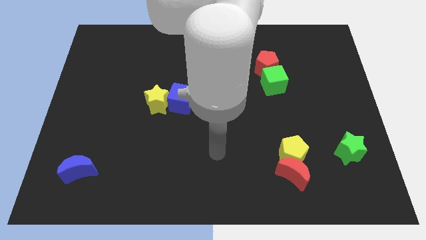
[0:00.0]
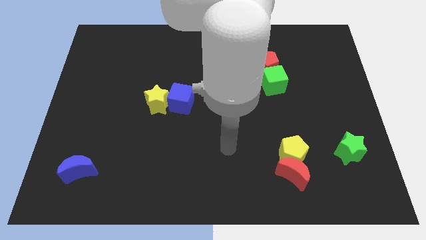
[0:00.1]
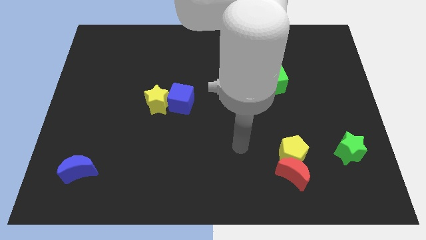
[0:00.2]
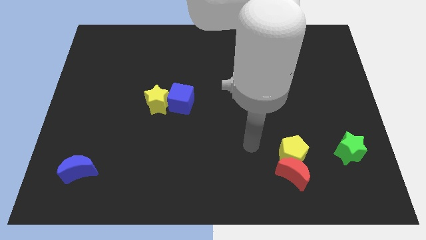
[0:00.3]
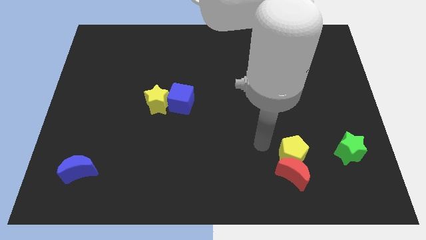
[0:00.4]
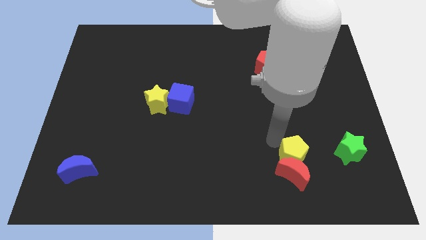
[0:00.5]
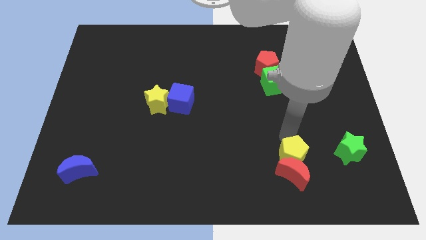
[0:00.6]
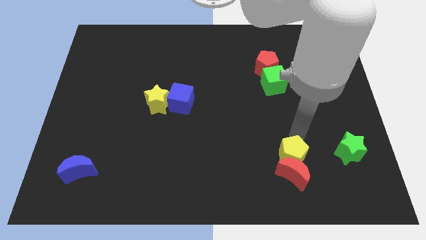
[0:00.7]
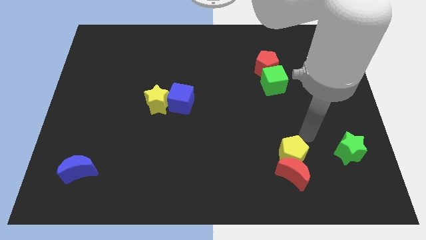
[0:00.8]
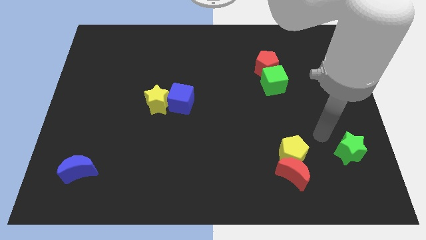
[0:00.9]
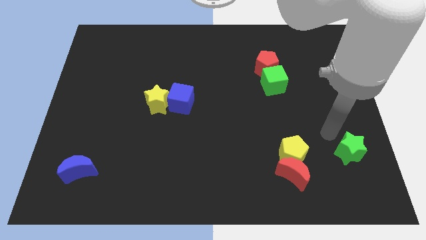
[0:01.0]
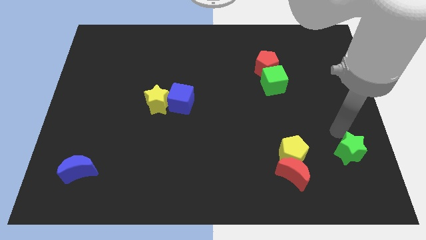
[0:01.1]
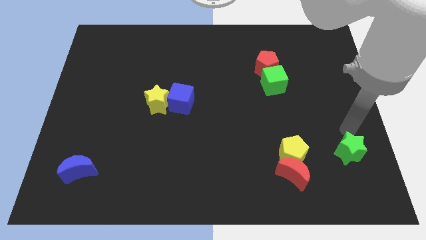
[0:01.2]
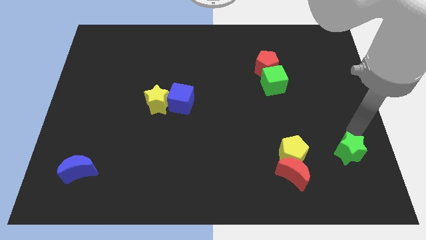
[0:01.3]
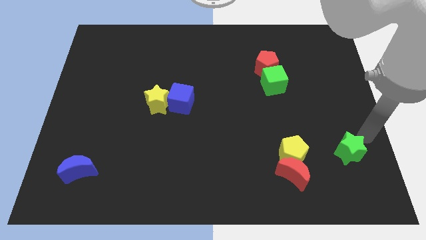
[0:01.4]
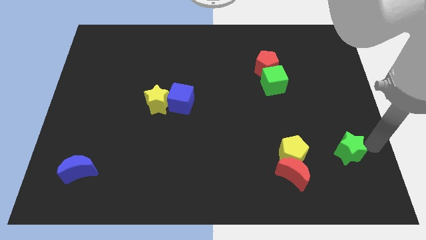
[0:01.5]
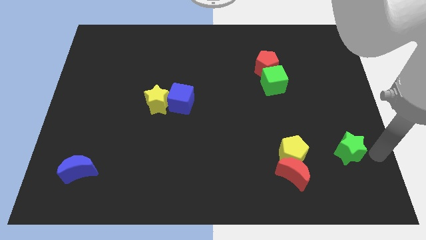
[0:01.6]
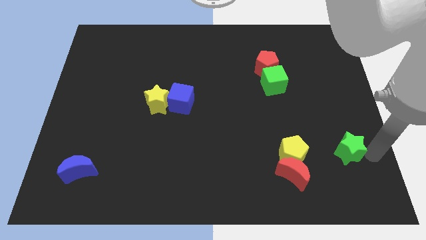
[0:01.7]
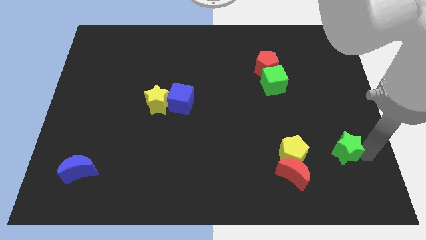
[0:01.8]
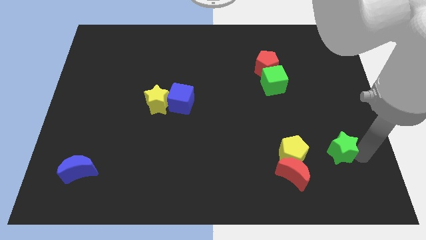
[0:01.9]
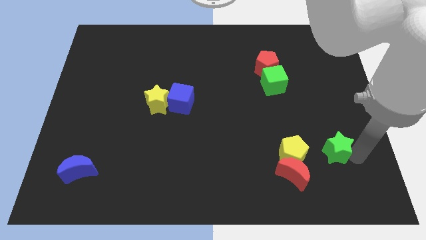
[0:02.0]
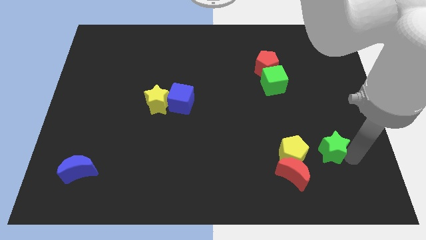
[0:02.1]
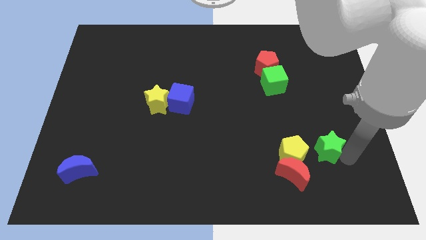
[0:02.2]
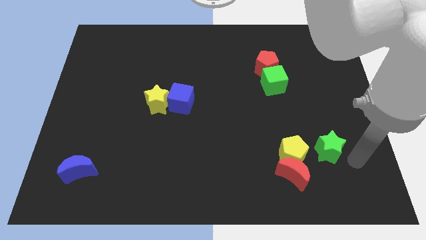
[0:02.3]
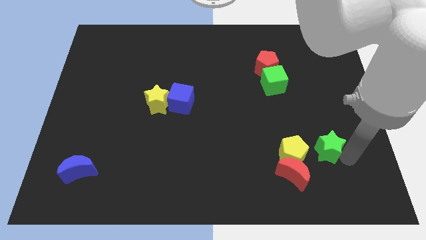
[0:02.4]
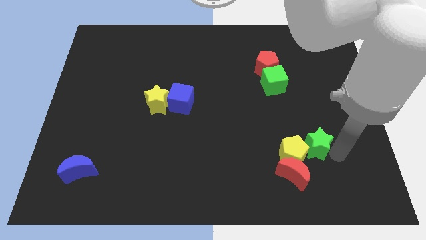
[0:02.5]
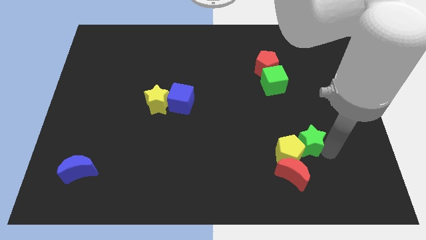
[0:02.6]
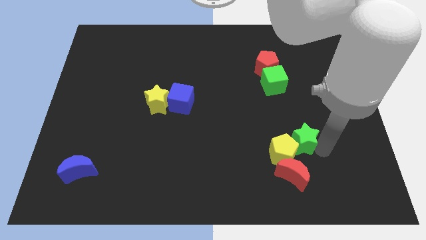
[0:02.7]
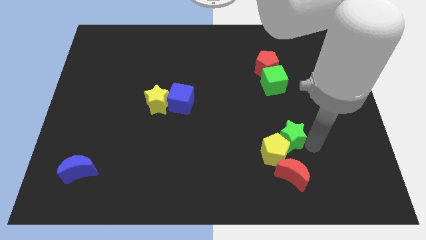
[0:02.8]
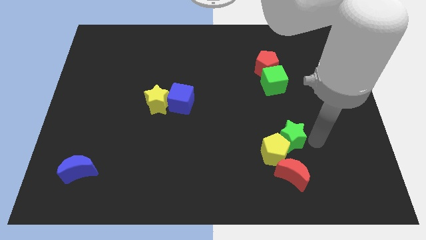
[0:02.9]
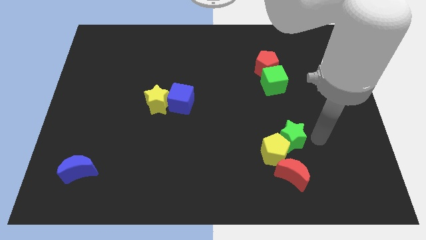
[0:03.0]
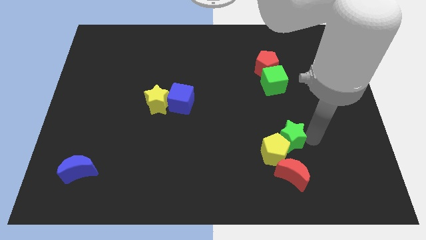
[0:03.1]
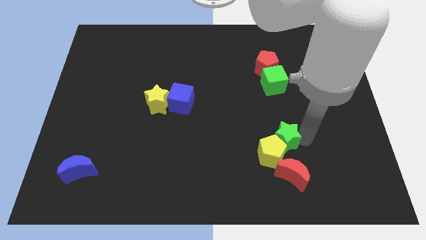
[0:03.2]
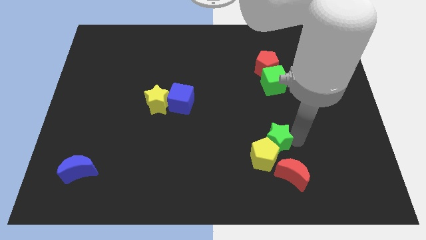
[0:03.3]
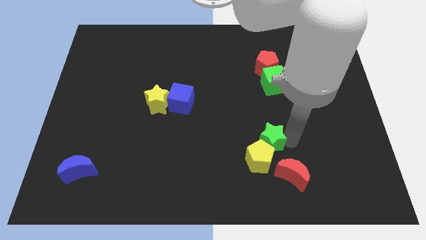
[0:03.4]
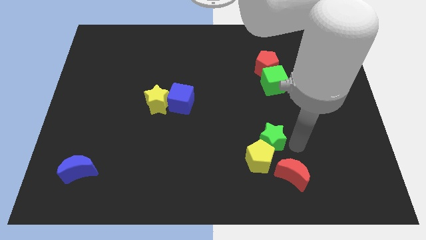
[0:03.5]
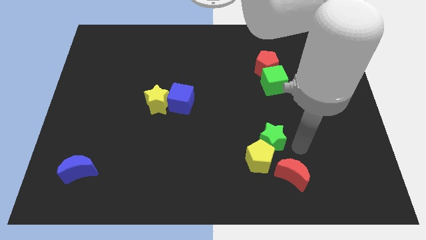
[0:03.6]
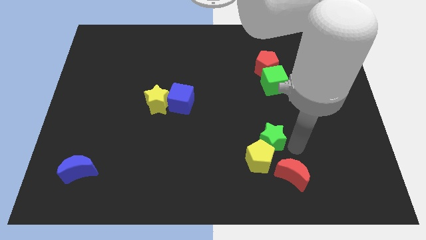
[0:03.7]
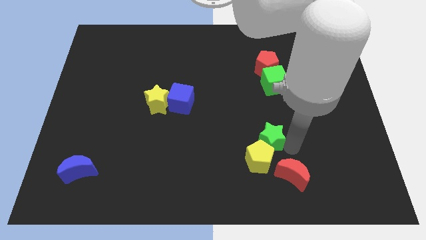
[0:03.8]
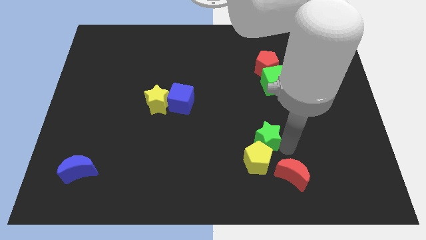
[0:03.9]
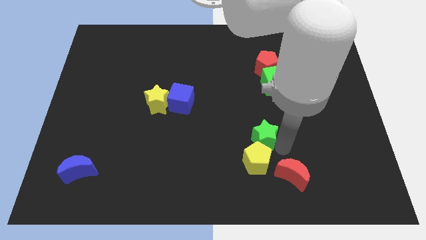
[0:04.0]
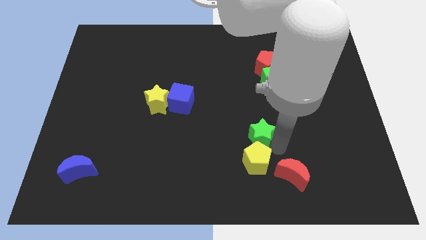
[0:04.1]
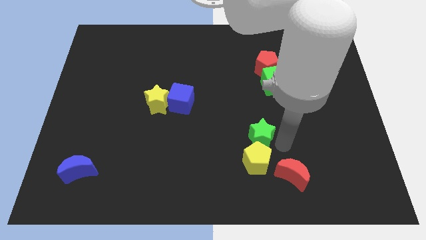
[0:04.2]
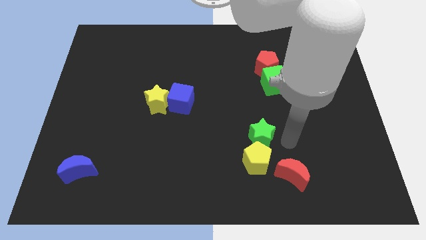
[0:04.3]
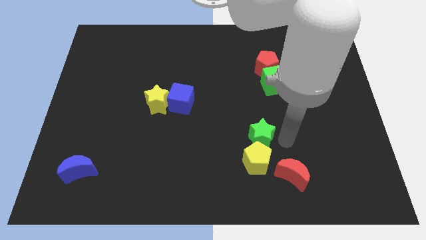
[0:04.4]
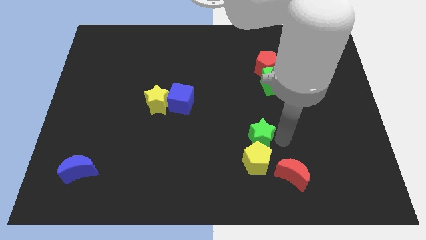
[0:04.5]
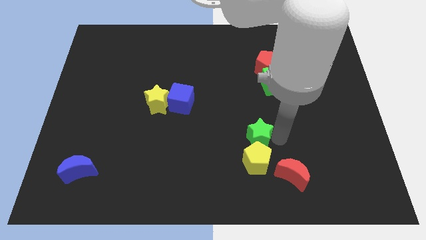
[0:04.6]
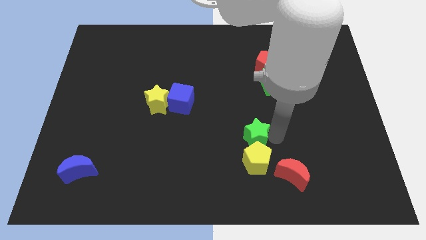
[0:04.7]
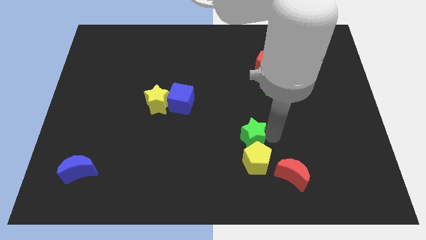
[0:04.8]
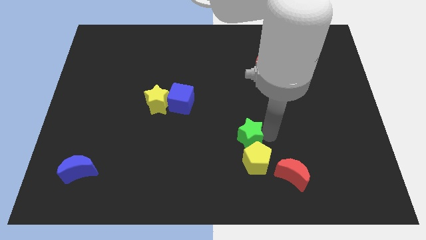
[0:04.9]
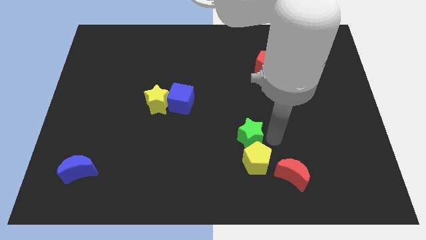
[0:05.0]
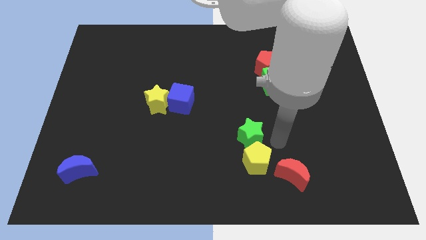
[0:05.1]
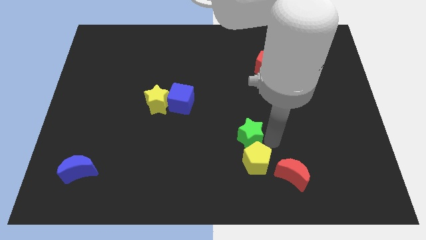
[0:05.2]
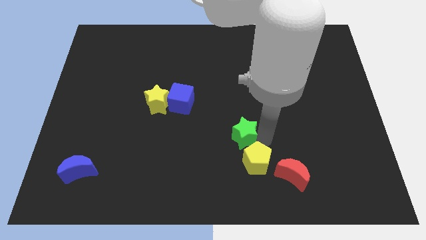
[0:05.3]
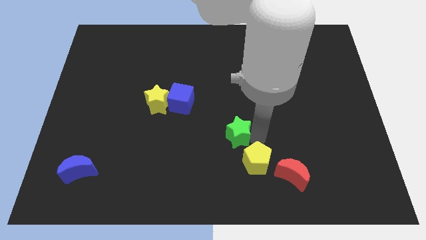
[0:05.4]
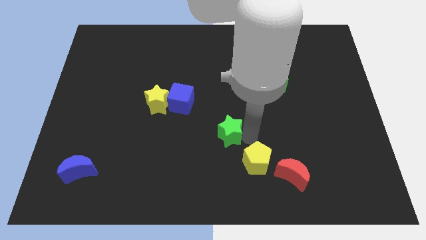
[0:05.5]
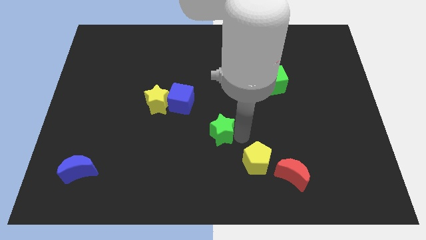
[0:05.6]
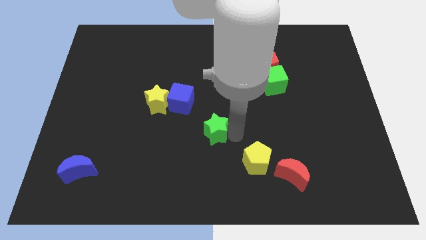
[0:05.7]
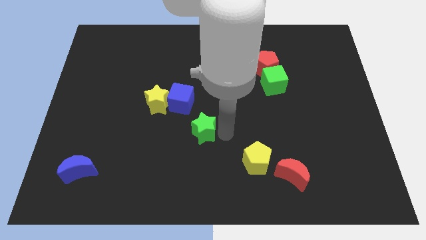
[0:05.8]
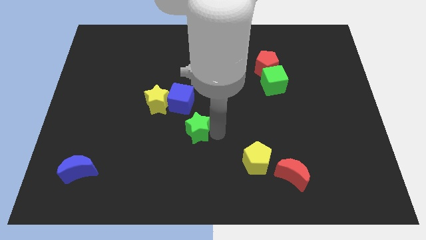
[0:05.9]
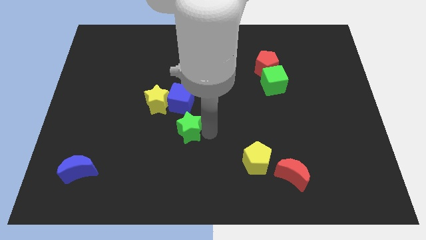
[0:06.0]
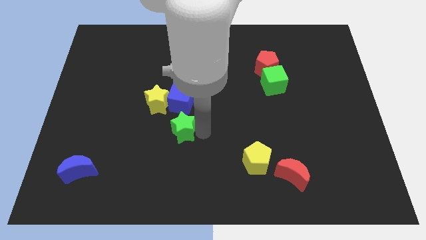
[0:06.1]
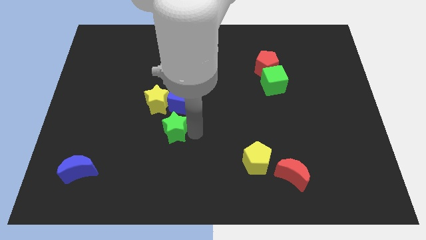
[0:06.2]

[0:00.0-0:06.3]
slide the green star to the bottom left side of the blue cube

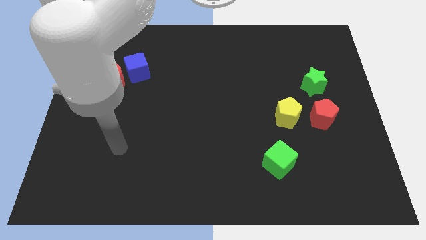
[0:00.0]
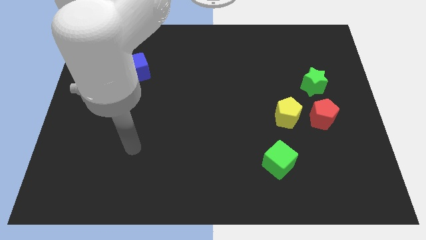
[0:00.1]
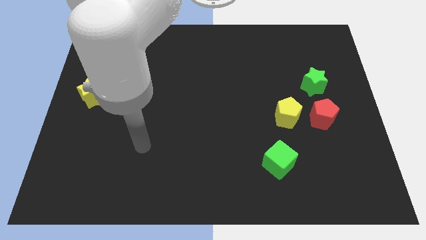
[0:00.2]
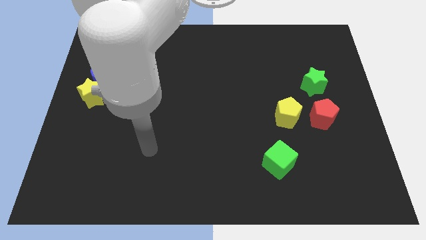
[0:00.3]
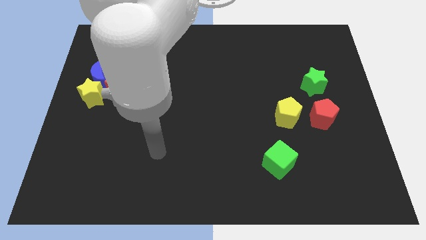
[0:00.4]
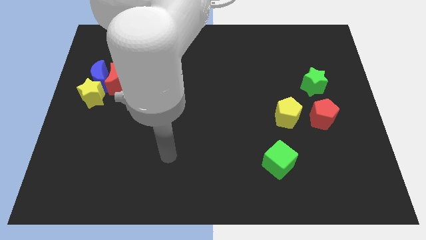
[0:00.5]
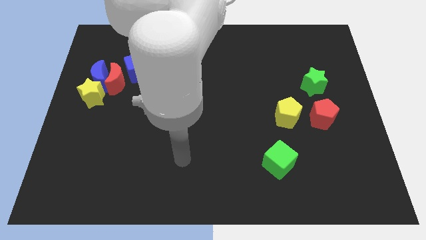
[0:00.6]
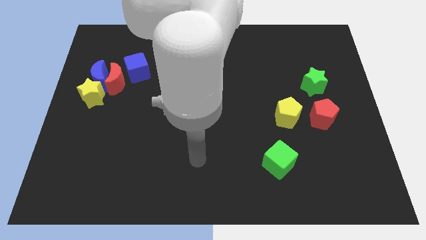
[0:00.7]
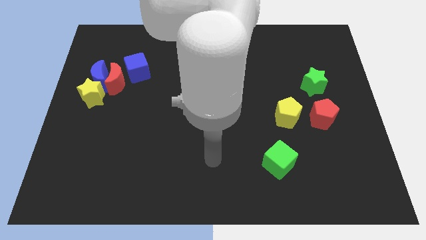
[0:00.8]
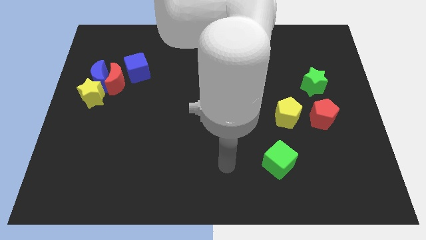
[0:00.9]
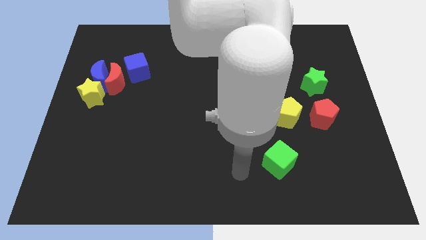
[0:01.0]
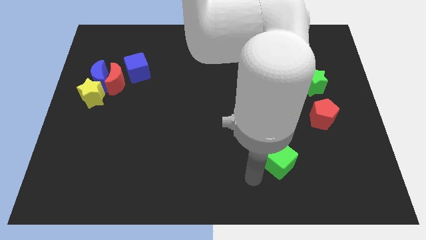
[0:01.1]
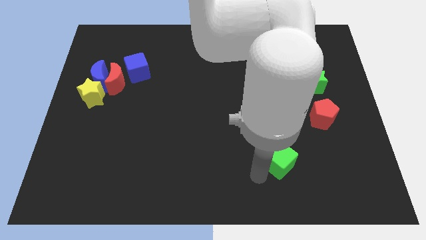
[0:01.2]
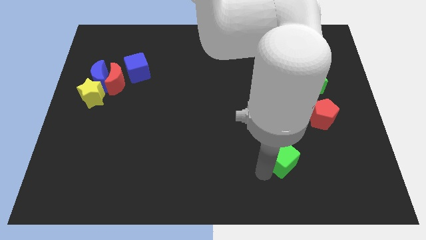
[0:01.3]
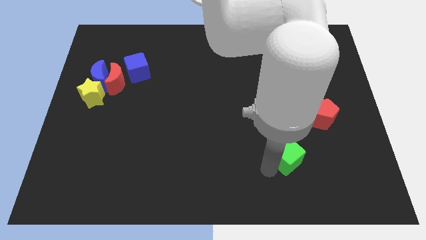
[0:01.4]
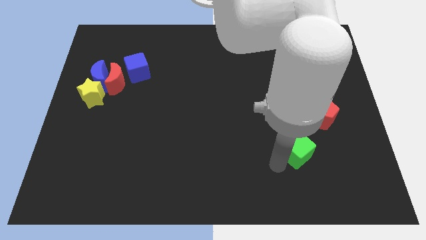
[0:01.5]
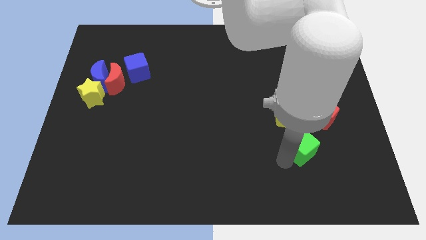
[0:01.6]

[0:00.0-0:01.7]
push the green cube to the bottom right side of the yellow pentagon
